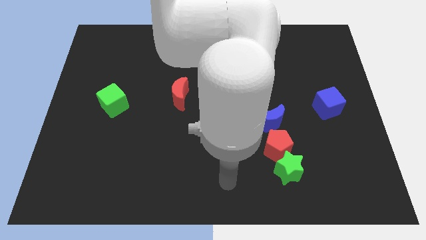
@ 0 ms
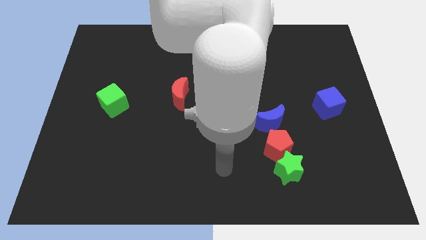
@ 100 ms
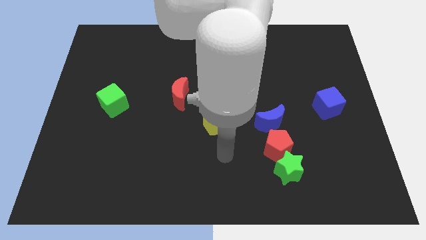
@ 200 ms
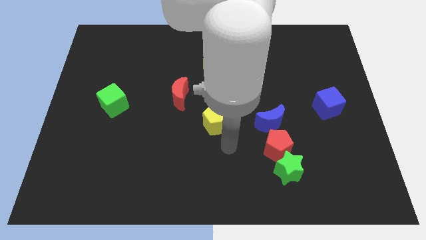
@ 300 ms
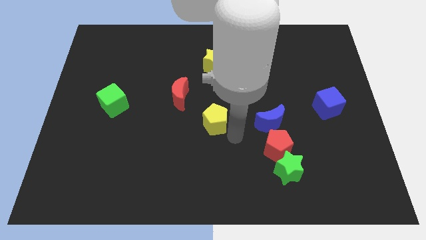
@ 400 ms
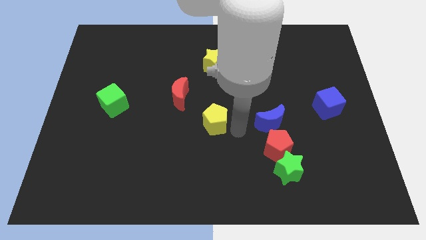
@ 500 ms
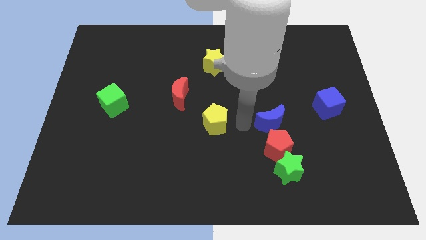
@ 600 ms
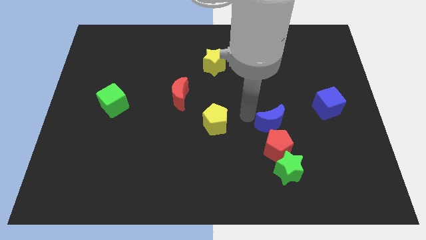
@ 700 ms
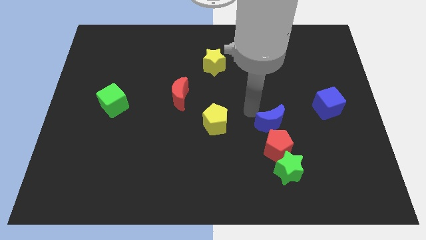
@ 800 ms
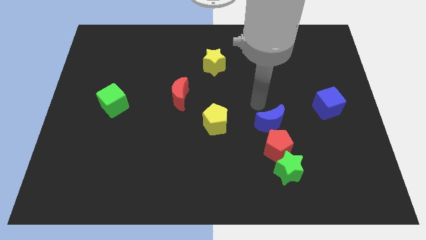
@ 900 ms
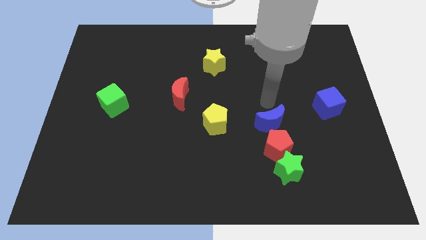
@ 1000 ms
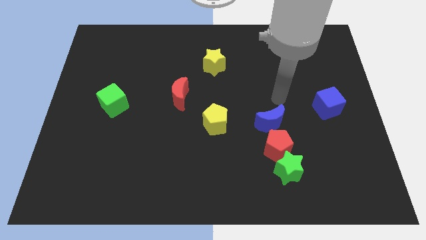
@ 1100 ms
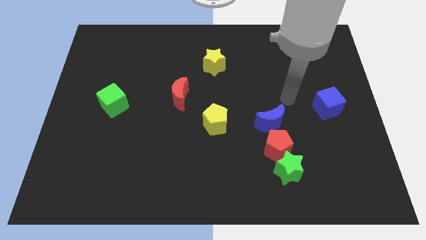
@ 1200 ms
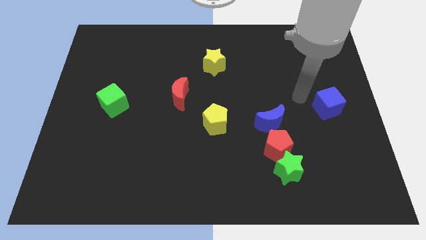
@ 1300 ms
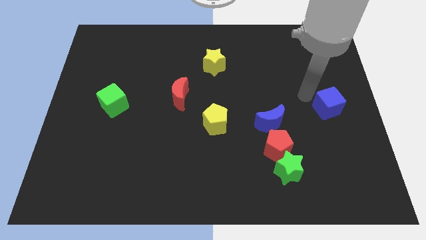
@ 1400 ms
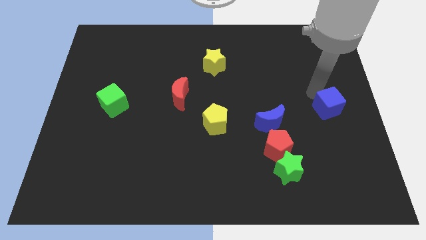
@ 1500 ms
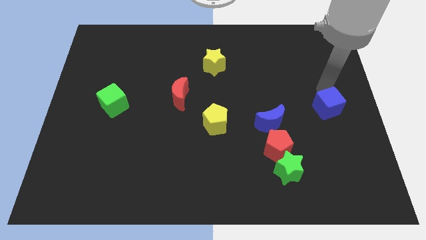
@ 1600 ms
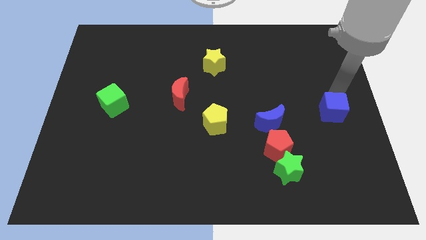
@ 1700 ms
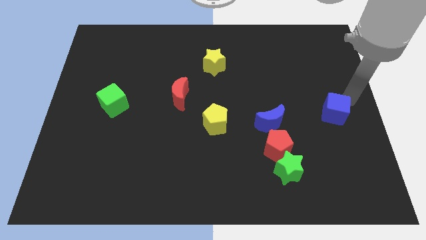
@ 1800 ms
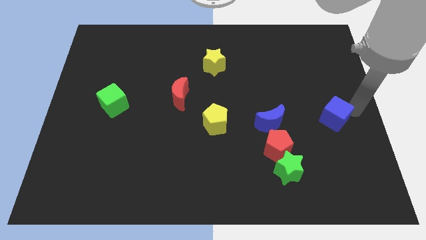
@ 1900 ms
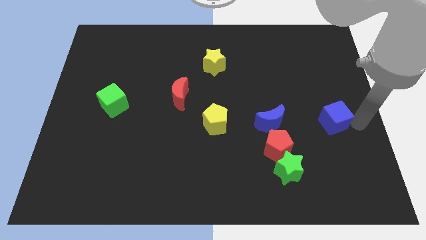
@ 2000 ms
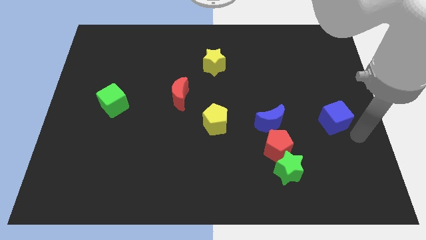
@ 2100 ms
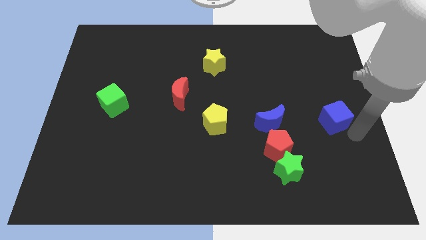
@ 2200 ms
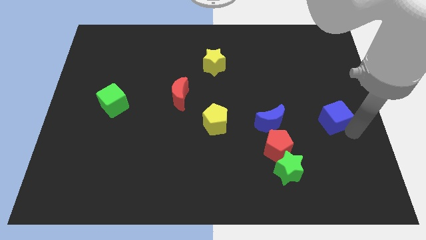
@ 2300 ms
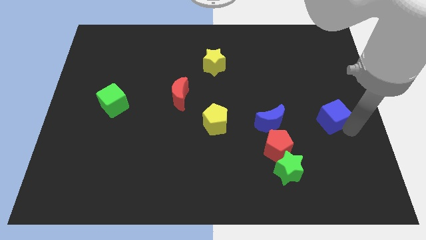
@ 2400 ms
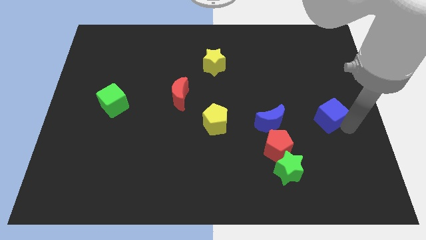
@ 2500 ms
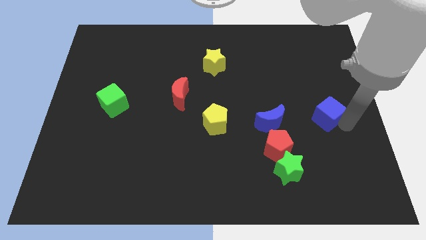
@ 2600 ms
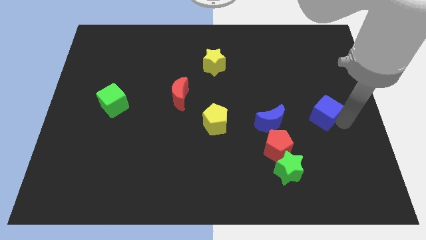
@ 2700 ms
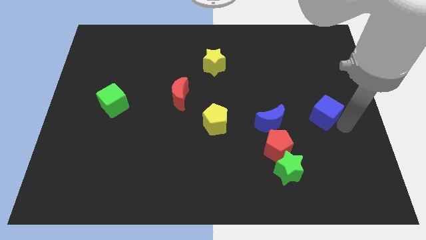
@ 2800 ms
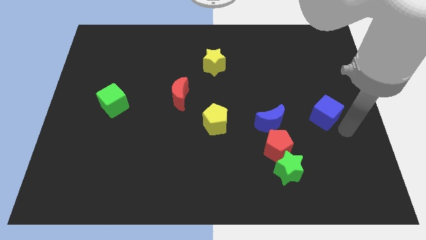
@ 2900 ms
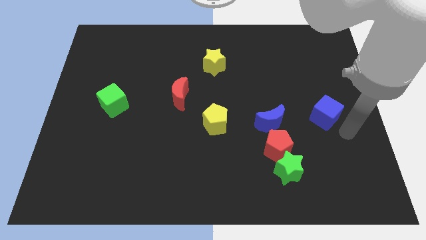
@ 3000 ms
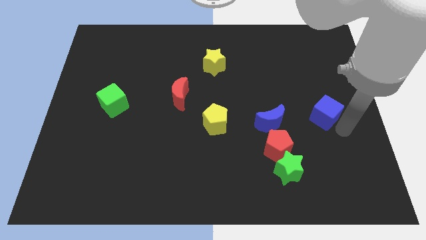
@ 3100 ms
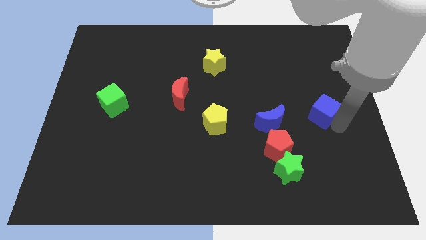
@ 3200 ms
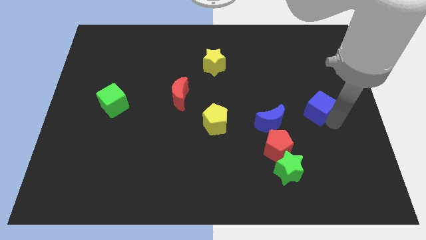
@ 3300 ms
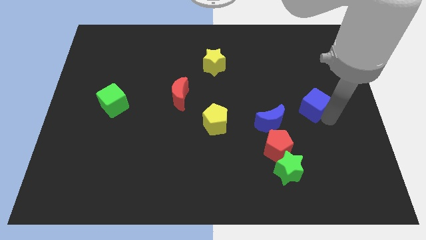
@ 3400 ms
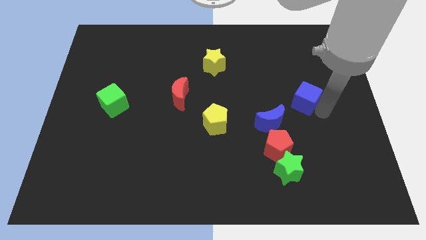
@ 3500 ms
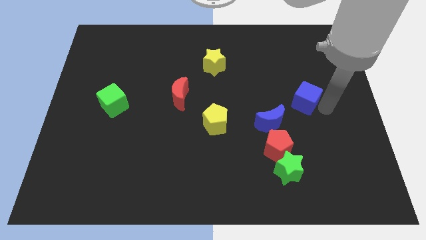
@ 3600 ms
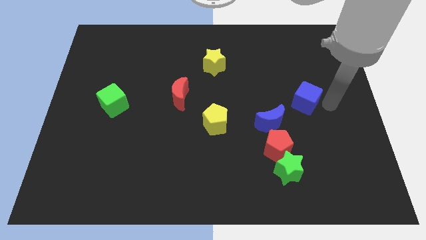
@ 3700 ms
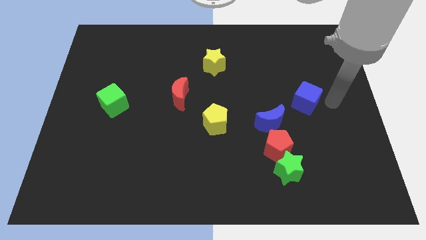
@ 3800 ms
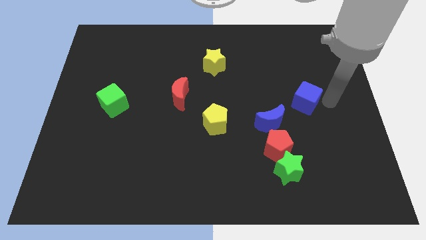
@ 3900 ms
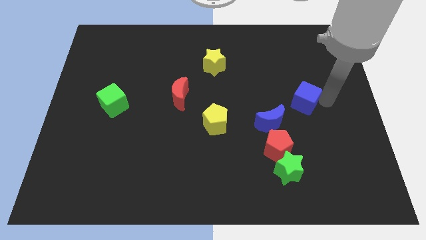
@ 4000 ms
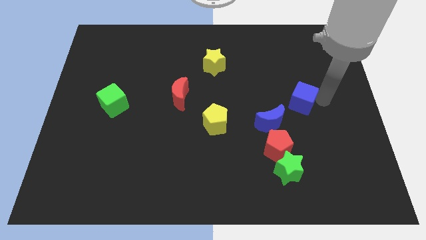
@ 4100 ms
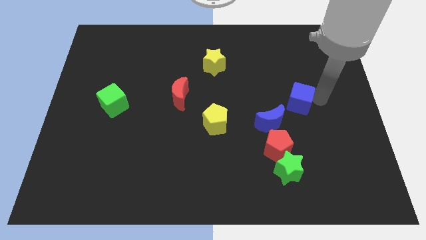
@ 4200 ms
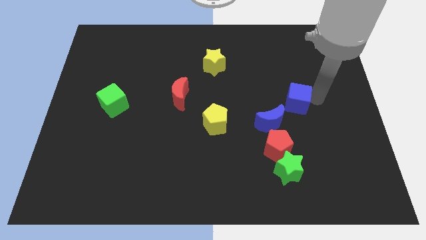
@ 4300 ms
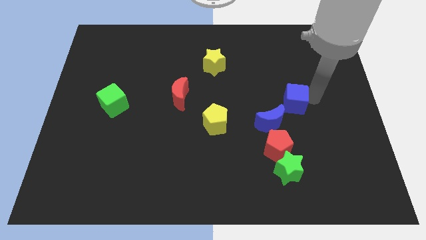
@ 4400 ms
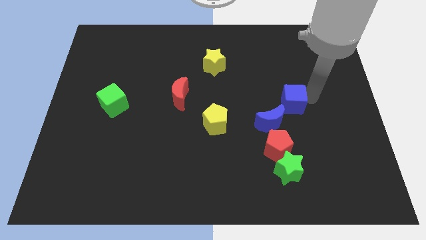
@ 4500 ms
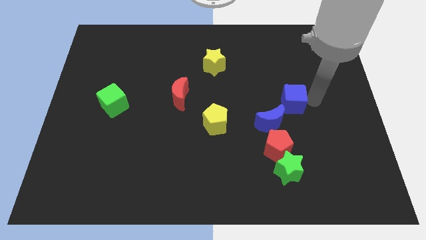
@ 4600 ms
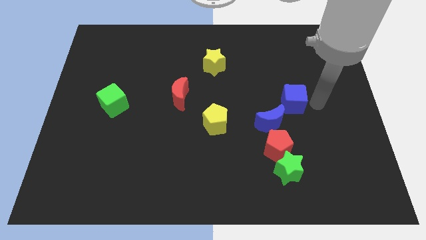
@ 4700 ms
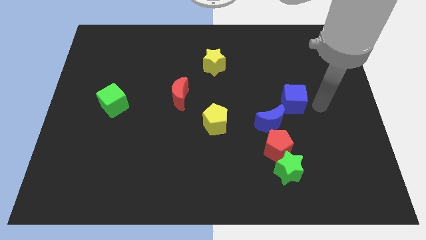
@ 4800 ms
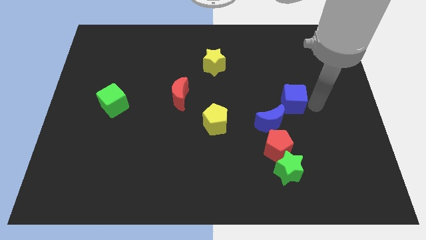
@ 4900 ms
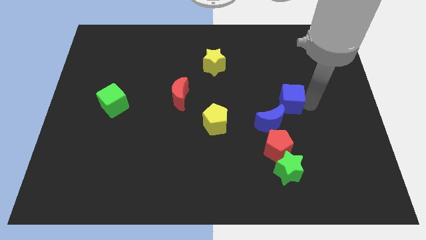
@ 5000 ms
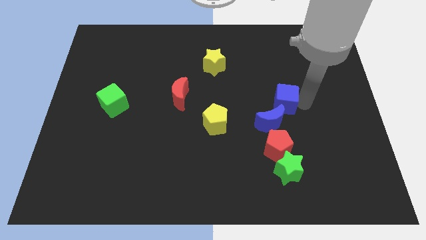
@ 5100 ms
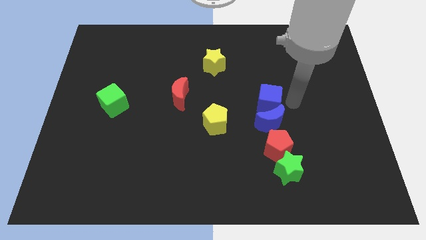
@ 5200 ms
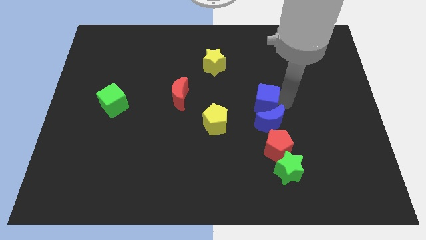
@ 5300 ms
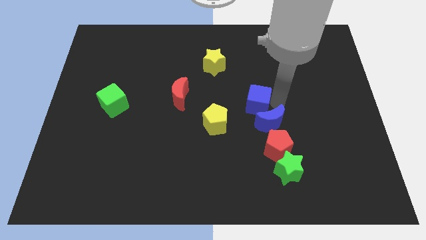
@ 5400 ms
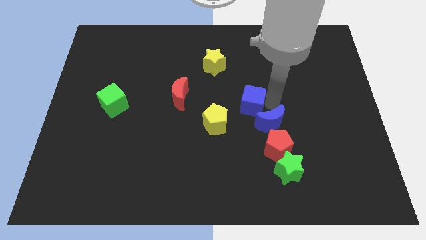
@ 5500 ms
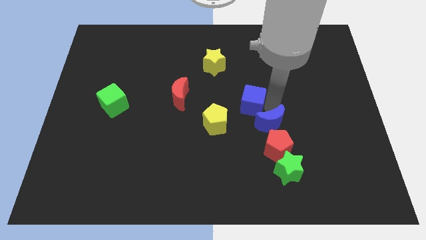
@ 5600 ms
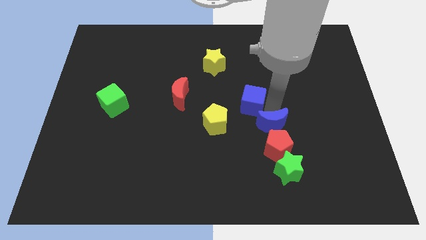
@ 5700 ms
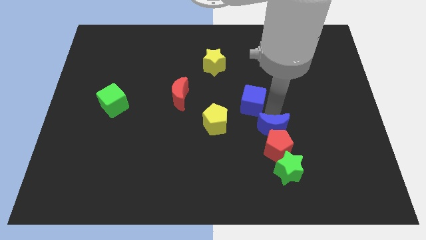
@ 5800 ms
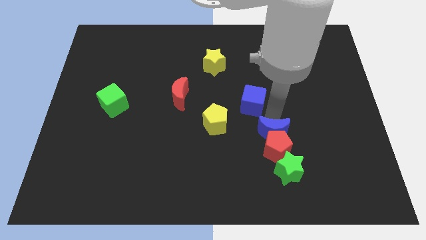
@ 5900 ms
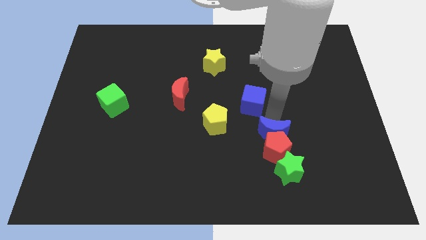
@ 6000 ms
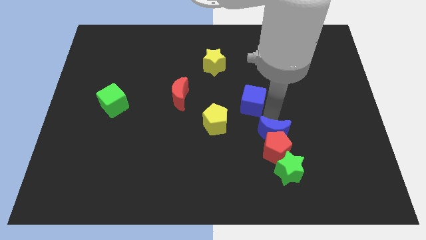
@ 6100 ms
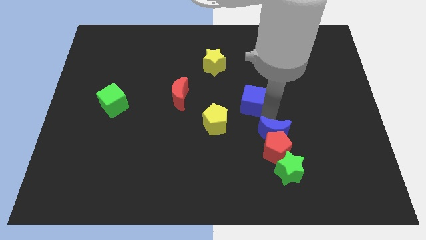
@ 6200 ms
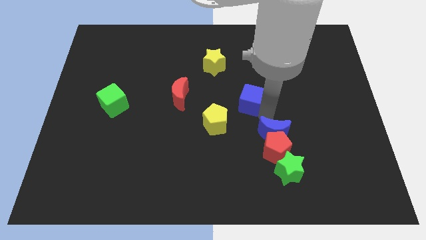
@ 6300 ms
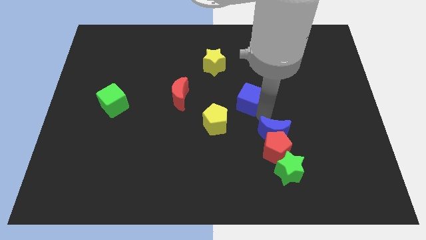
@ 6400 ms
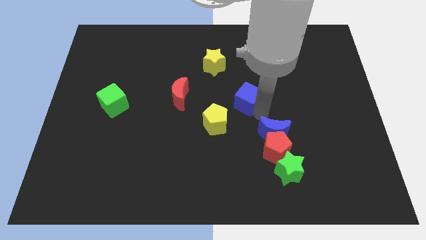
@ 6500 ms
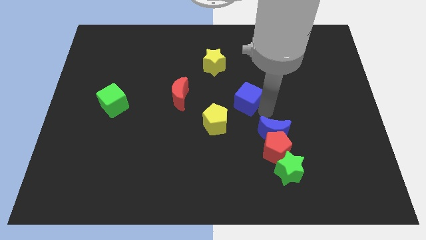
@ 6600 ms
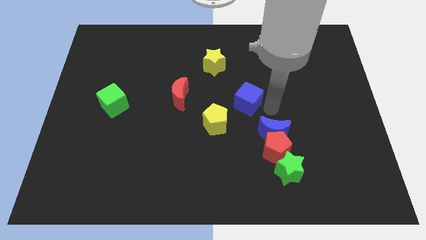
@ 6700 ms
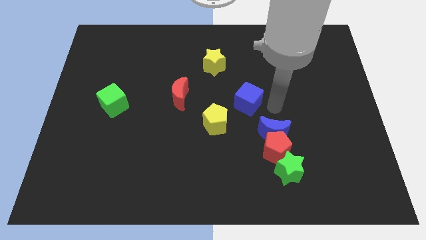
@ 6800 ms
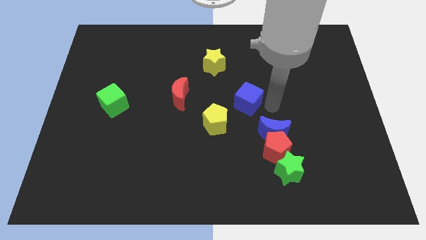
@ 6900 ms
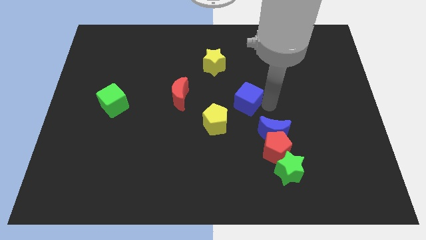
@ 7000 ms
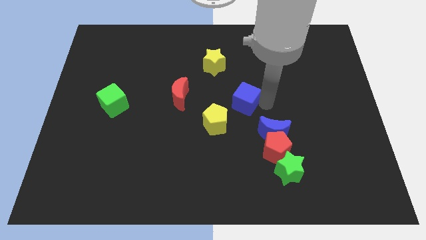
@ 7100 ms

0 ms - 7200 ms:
move the blue cube right of the red moon

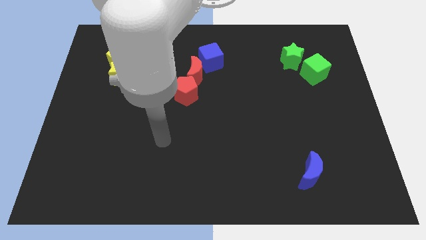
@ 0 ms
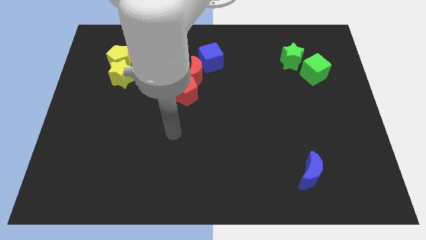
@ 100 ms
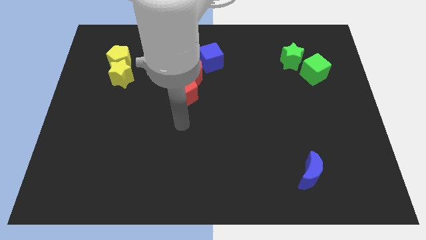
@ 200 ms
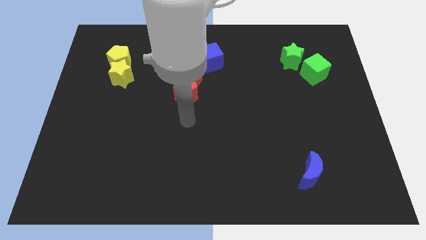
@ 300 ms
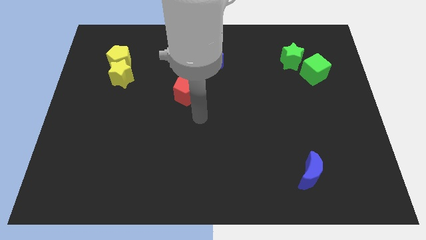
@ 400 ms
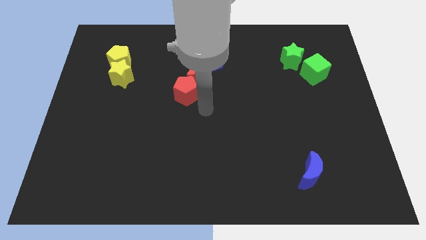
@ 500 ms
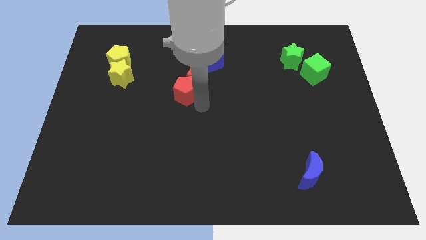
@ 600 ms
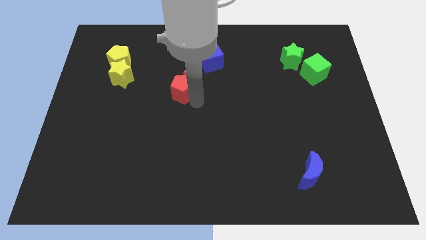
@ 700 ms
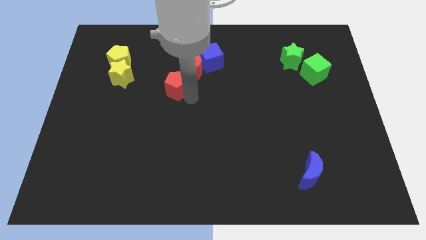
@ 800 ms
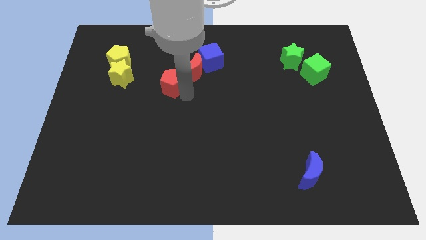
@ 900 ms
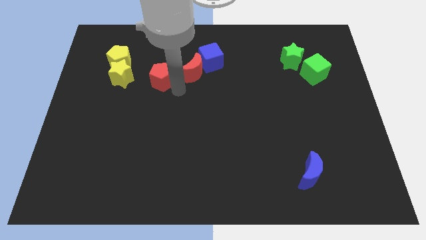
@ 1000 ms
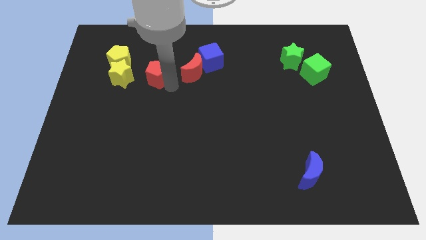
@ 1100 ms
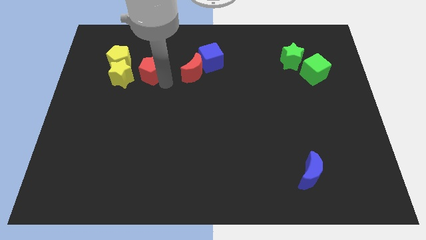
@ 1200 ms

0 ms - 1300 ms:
put the red pentagon to the top right side of the yellow star
